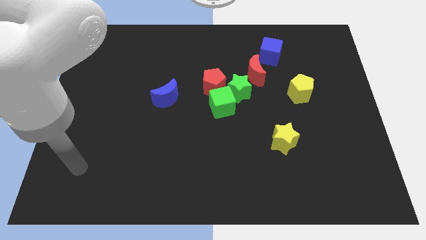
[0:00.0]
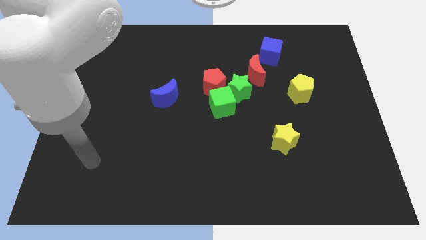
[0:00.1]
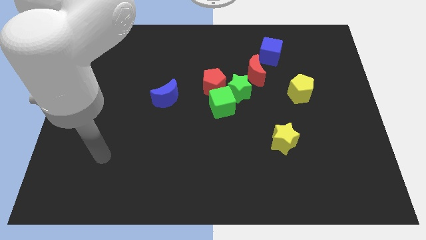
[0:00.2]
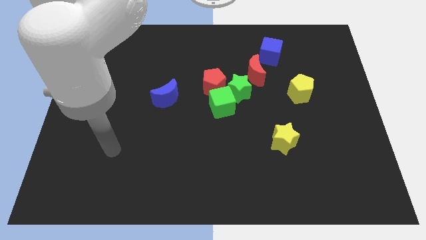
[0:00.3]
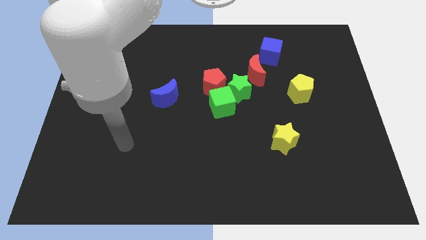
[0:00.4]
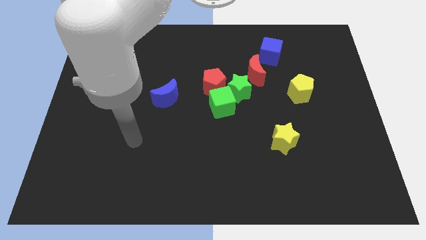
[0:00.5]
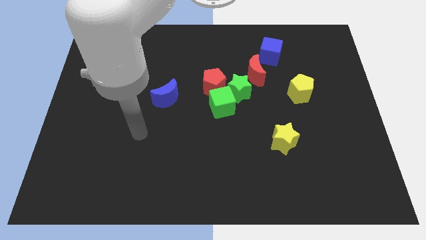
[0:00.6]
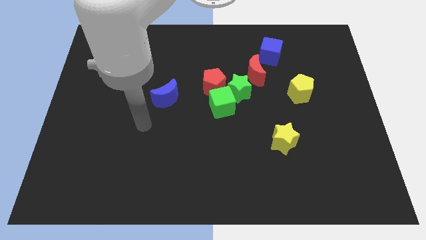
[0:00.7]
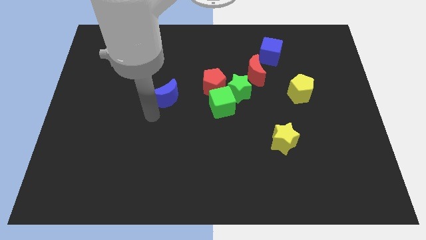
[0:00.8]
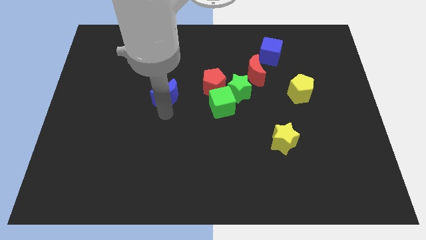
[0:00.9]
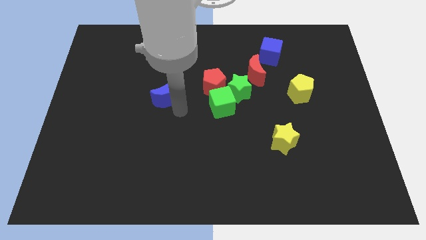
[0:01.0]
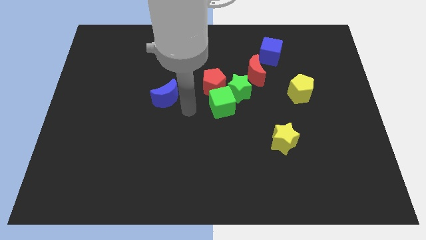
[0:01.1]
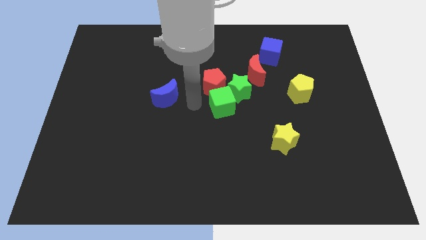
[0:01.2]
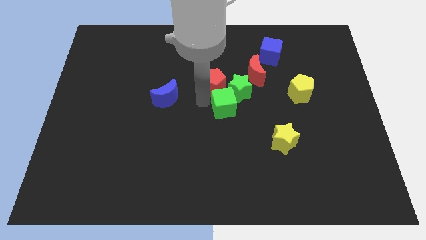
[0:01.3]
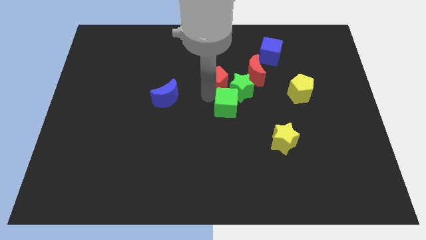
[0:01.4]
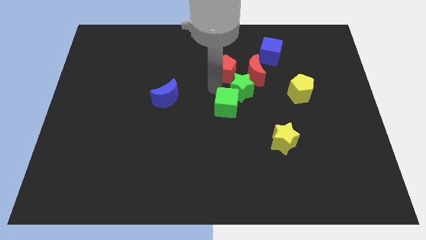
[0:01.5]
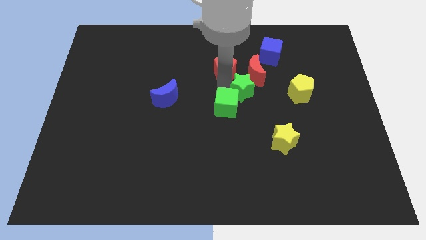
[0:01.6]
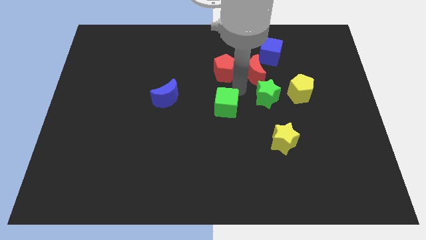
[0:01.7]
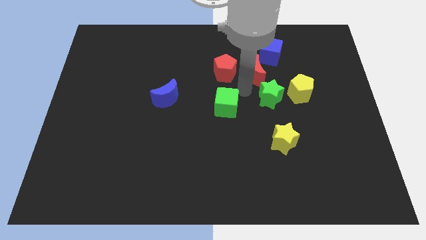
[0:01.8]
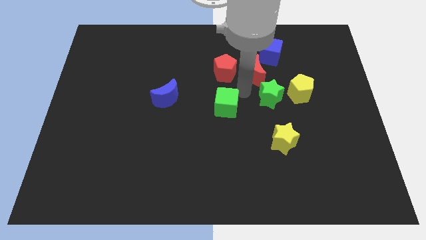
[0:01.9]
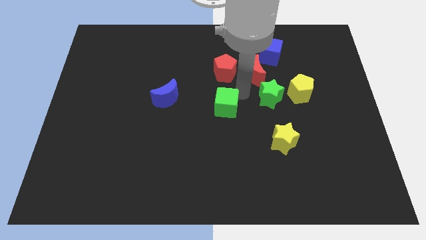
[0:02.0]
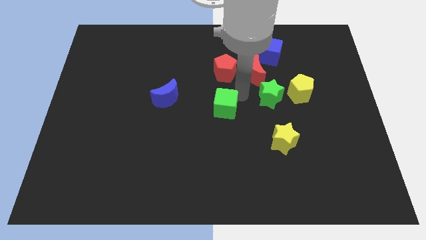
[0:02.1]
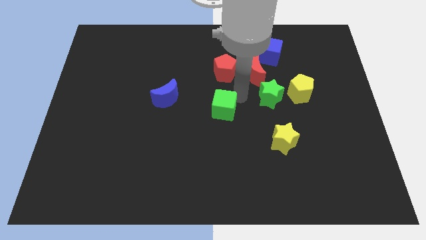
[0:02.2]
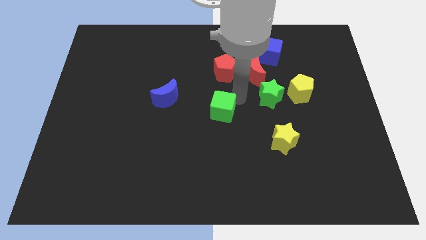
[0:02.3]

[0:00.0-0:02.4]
separate the green cube from the green star and red pentagon

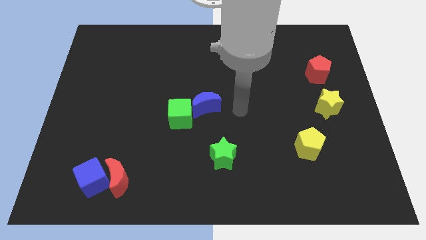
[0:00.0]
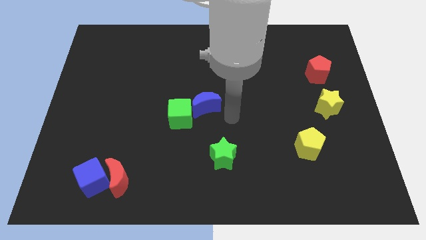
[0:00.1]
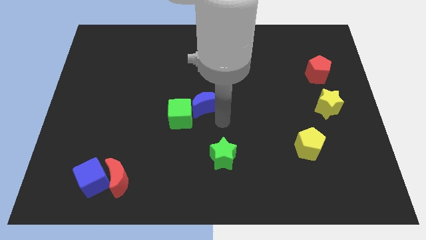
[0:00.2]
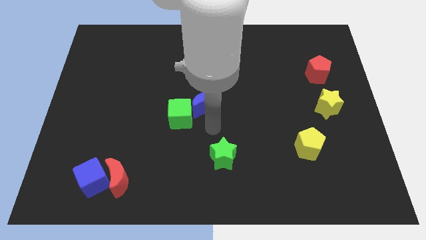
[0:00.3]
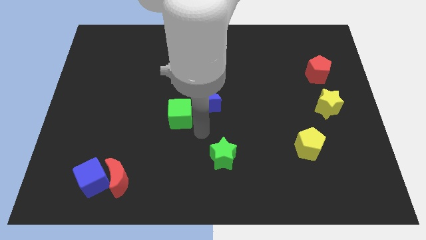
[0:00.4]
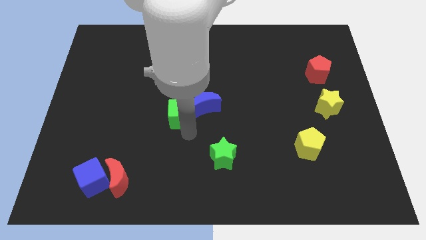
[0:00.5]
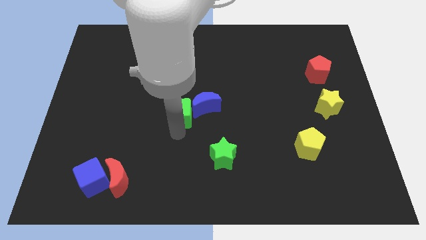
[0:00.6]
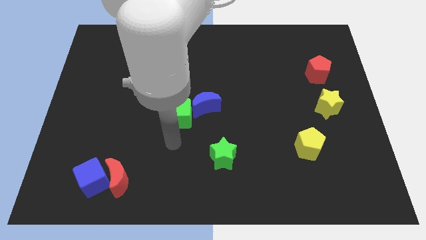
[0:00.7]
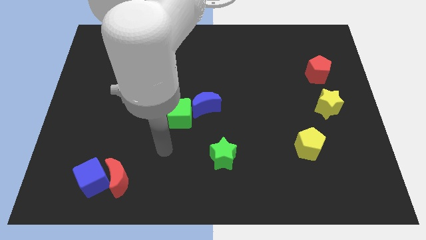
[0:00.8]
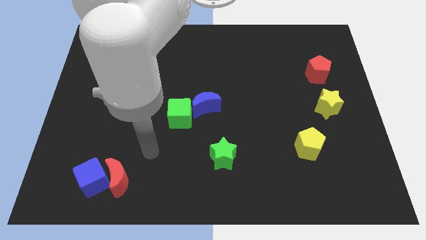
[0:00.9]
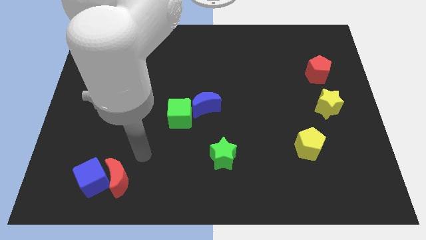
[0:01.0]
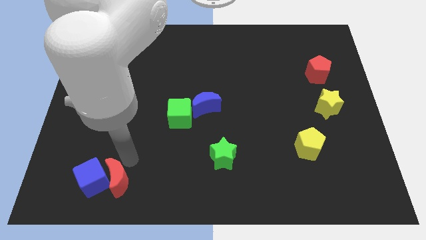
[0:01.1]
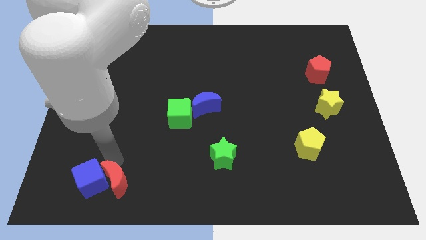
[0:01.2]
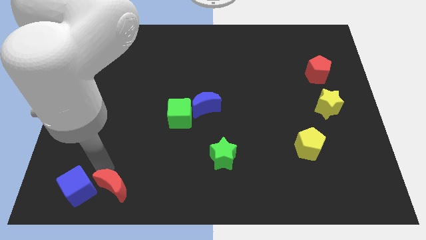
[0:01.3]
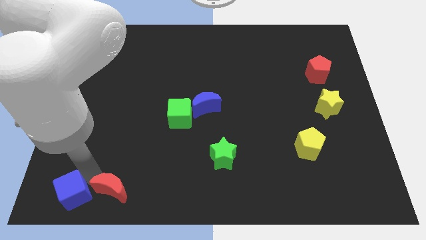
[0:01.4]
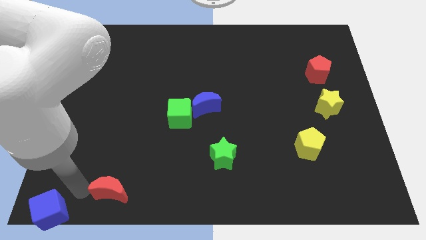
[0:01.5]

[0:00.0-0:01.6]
separate the red moon from the blue cube

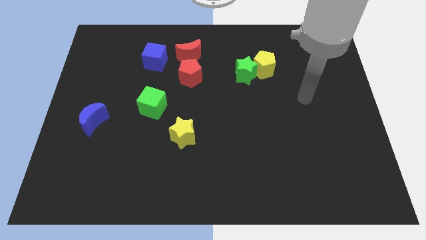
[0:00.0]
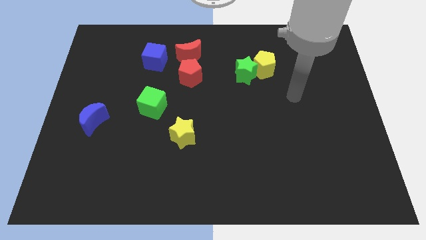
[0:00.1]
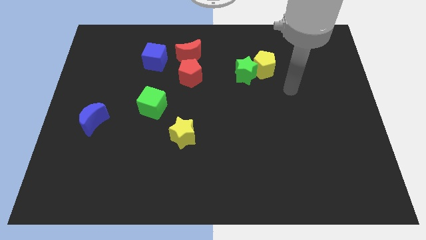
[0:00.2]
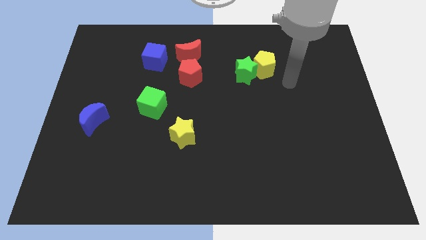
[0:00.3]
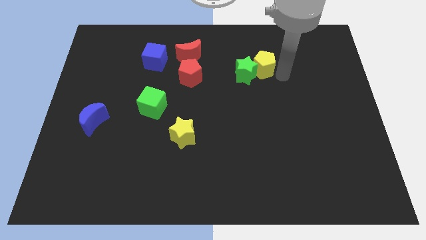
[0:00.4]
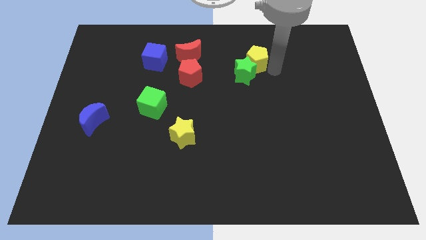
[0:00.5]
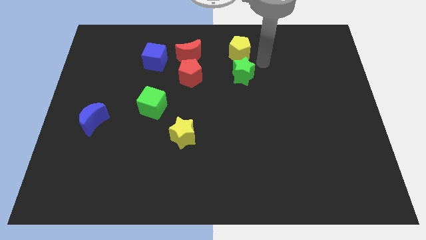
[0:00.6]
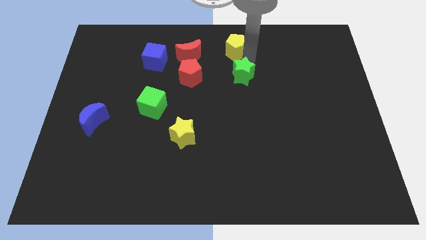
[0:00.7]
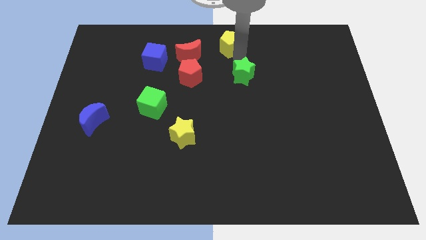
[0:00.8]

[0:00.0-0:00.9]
separate the green star from the yellow pentagon

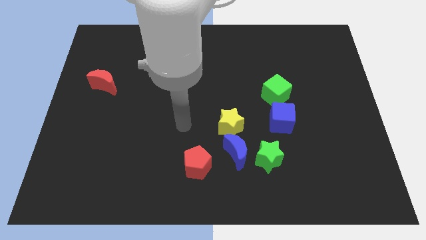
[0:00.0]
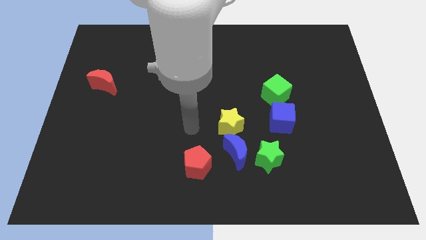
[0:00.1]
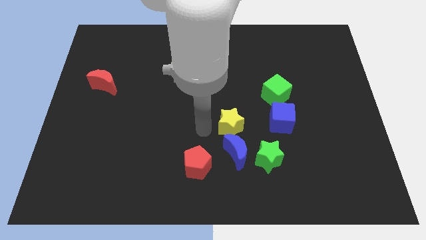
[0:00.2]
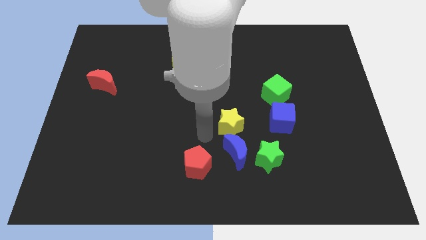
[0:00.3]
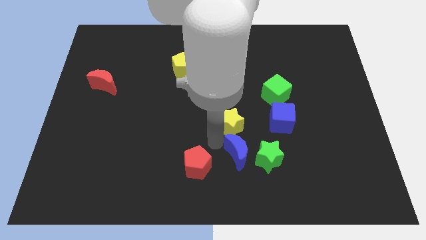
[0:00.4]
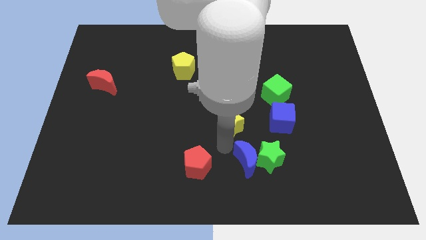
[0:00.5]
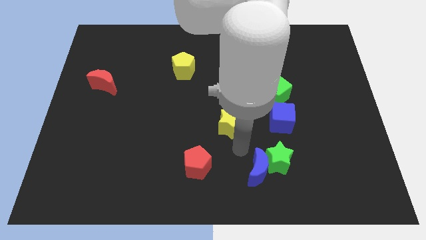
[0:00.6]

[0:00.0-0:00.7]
separate the yellow star from the blue moon

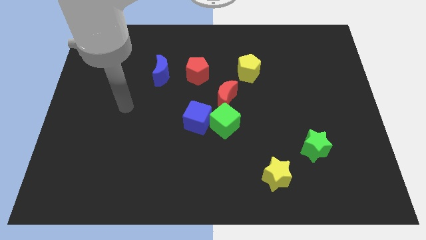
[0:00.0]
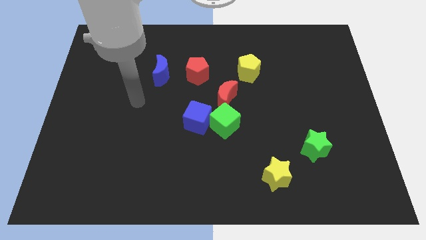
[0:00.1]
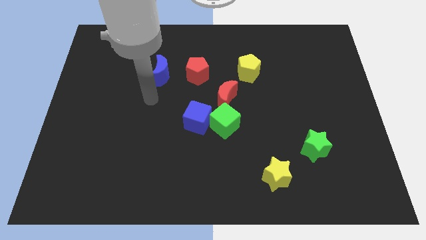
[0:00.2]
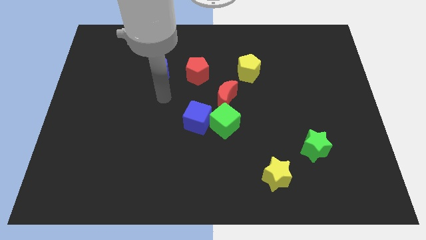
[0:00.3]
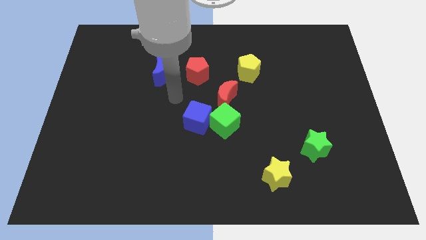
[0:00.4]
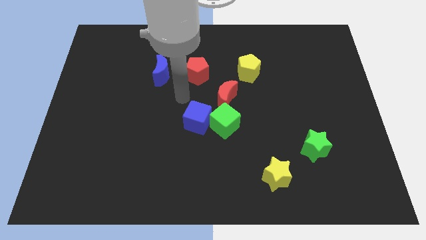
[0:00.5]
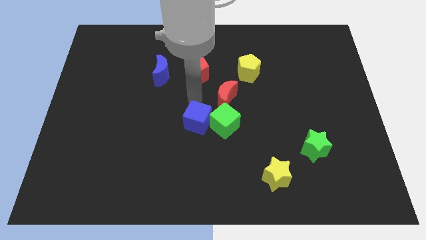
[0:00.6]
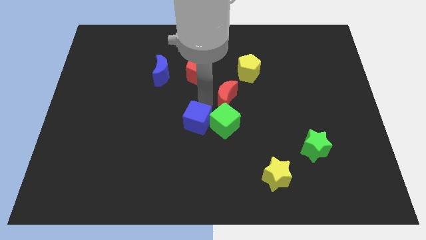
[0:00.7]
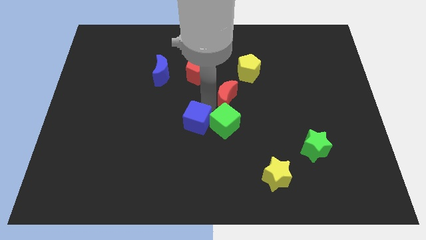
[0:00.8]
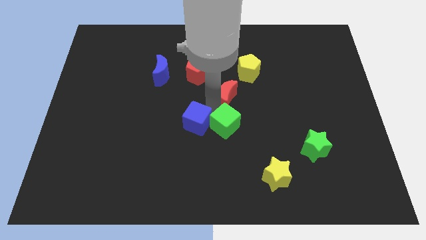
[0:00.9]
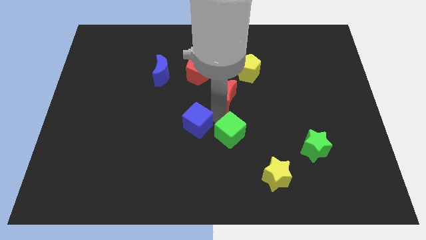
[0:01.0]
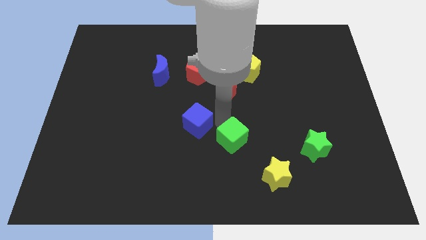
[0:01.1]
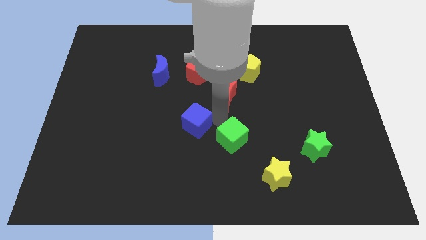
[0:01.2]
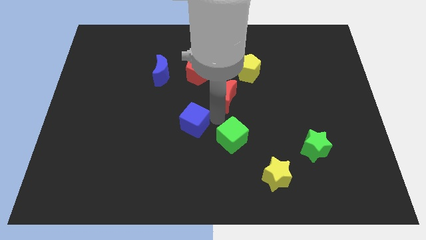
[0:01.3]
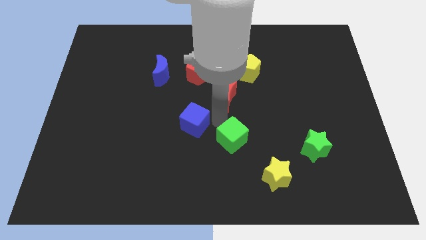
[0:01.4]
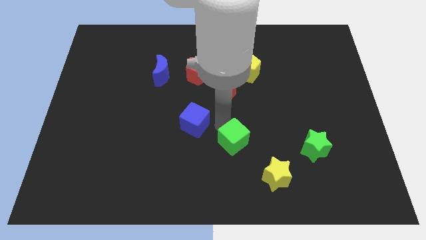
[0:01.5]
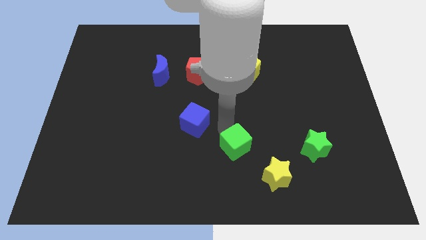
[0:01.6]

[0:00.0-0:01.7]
pull the green cube apart from the blue cube and red moon

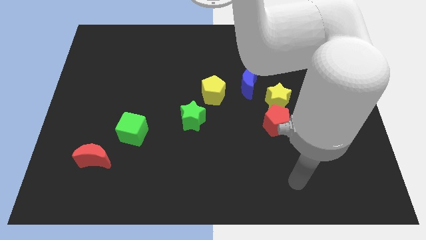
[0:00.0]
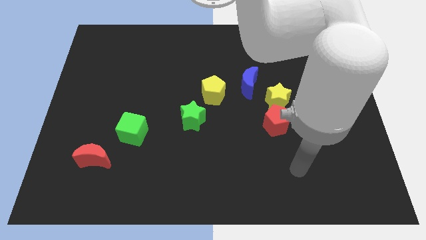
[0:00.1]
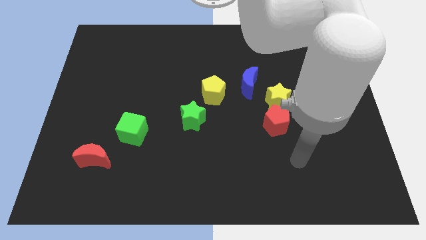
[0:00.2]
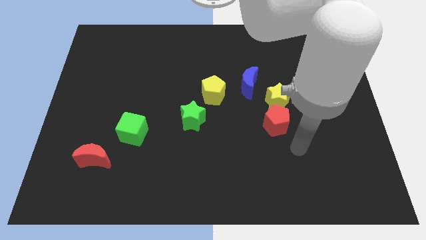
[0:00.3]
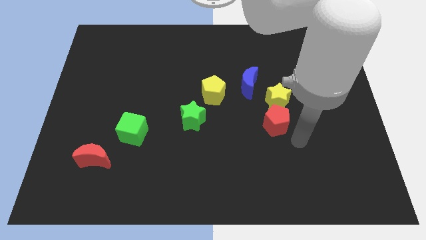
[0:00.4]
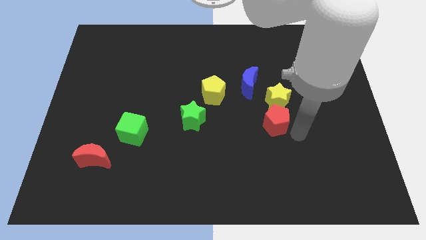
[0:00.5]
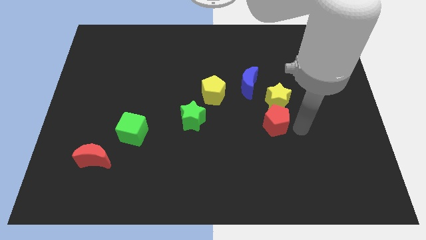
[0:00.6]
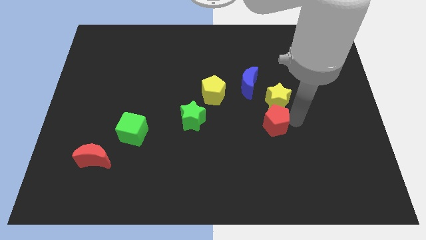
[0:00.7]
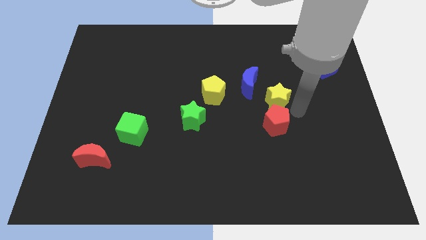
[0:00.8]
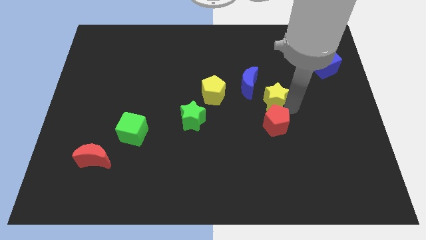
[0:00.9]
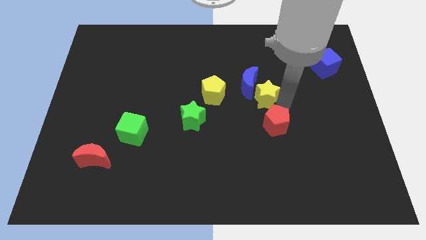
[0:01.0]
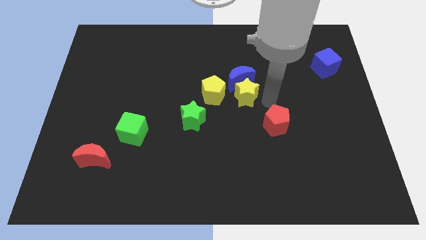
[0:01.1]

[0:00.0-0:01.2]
pull the red pentagon apart from the yellow star

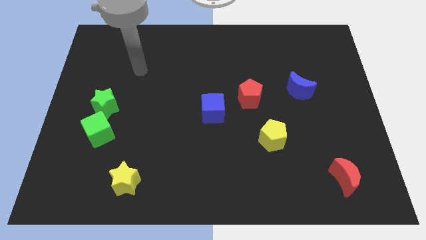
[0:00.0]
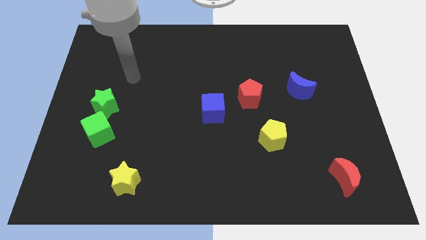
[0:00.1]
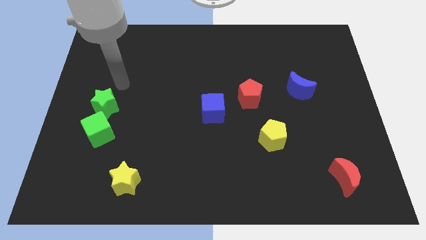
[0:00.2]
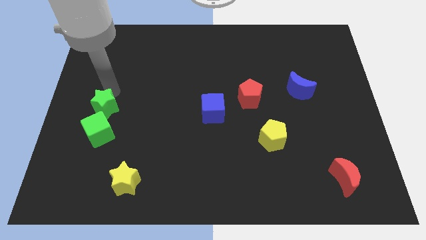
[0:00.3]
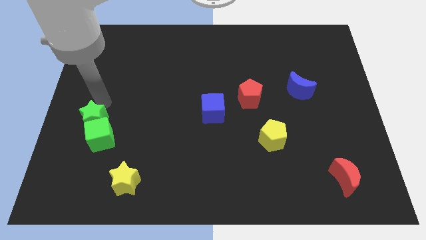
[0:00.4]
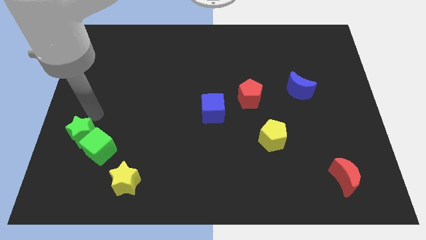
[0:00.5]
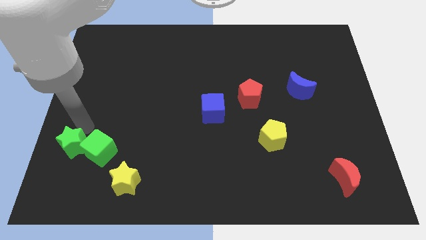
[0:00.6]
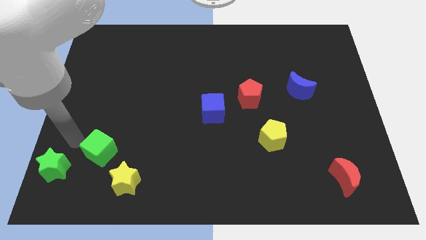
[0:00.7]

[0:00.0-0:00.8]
pull the green cube apart from the green star
